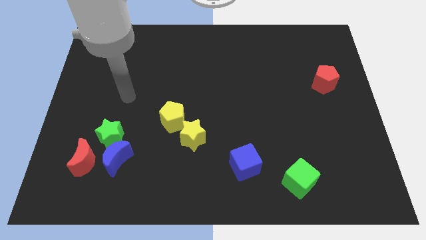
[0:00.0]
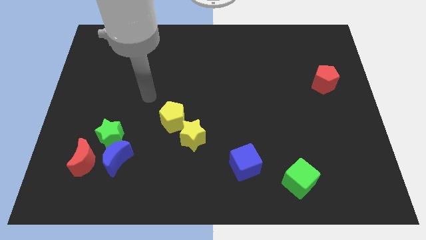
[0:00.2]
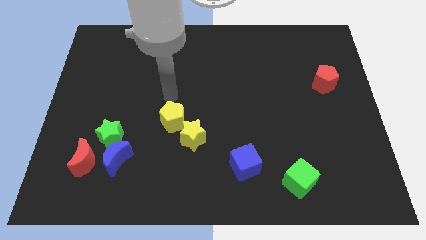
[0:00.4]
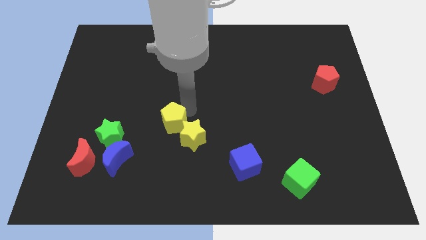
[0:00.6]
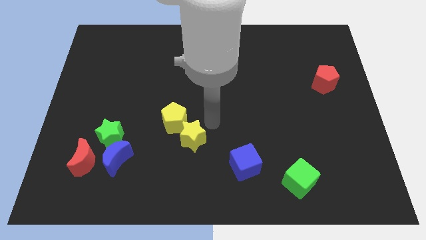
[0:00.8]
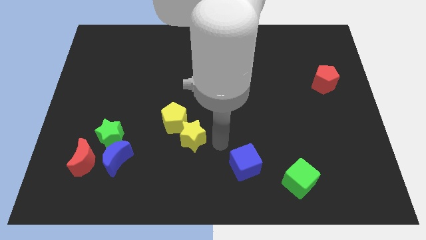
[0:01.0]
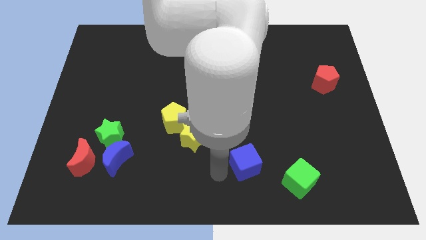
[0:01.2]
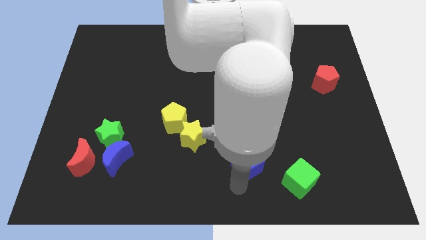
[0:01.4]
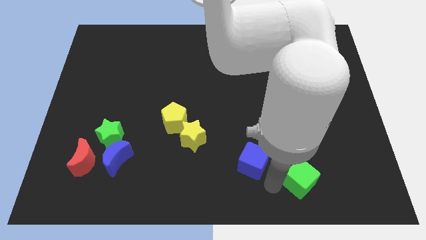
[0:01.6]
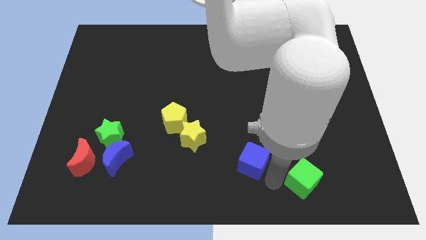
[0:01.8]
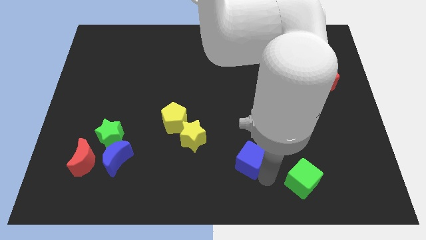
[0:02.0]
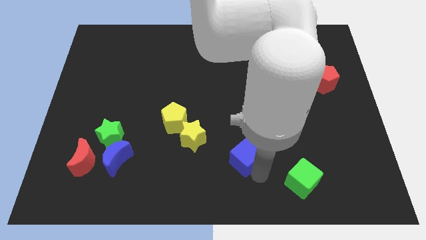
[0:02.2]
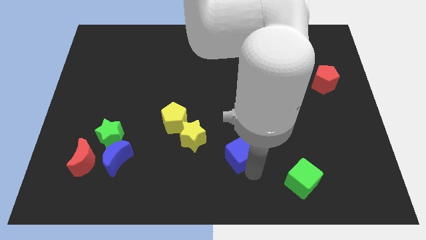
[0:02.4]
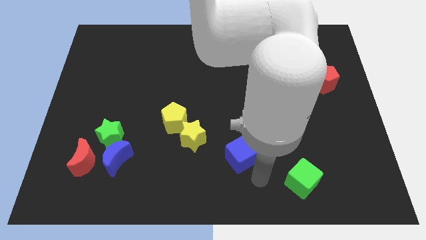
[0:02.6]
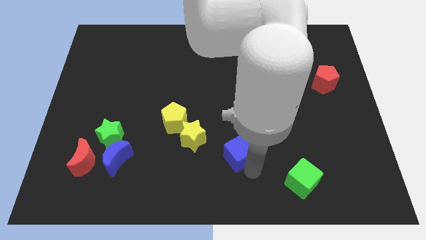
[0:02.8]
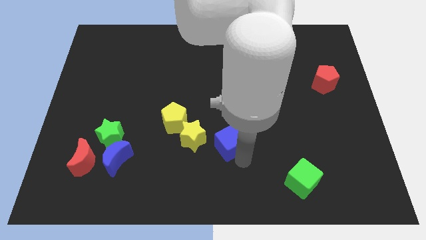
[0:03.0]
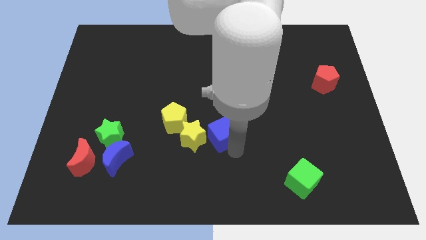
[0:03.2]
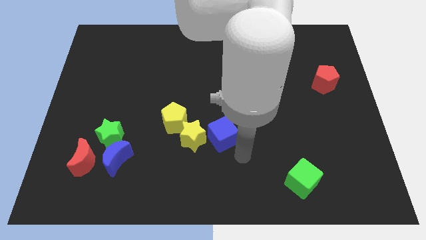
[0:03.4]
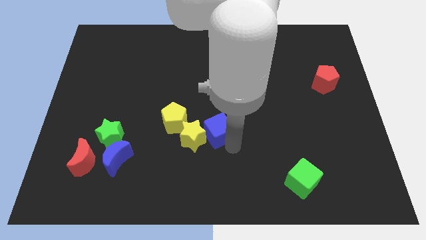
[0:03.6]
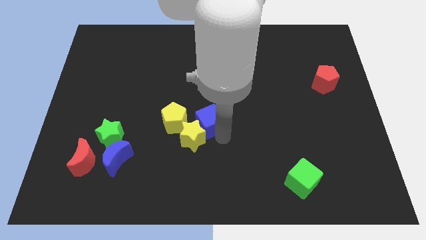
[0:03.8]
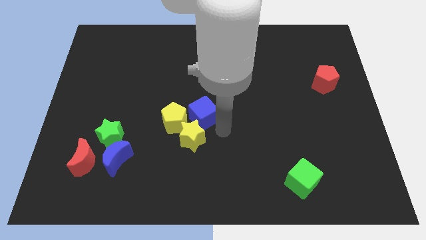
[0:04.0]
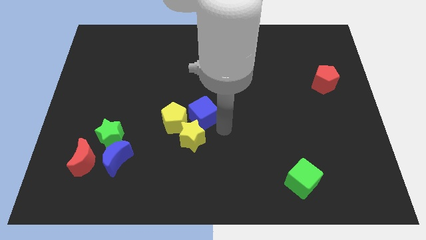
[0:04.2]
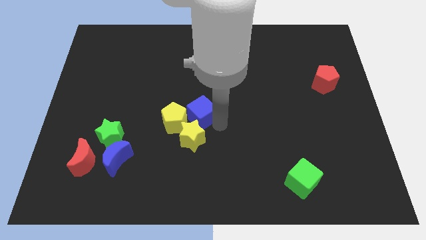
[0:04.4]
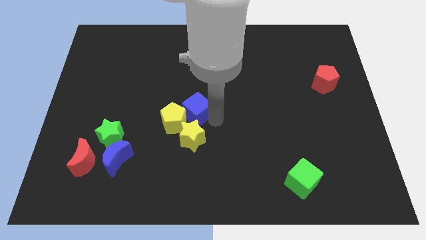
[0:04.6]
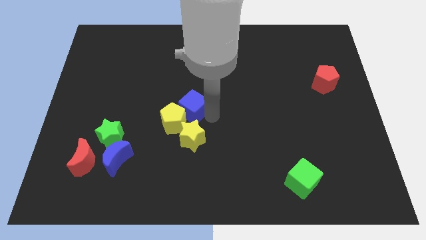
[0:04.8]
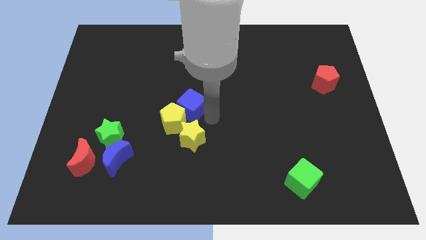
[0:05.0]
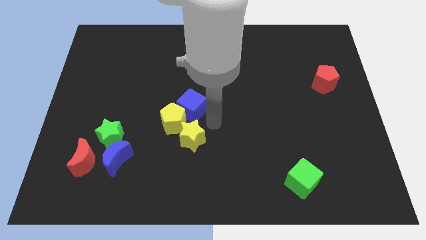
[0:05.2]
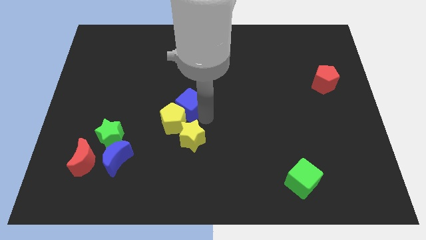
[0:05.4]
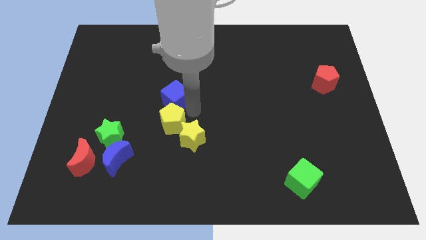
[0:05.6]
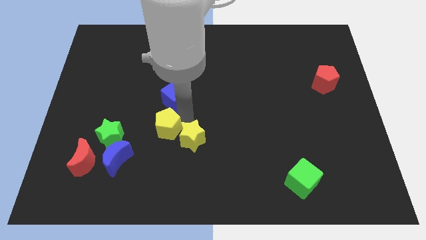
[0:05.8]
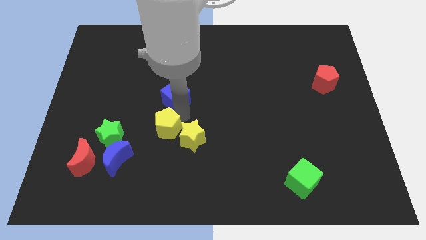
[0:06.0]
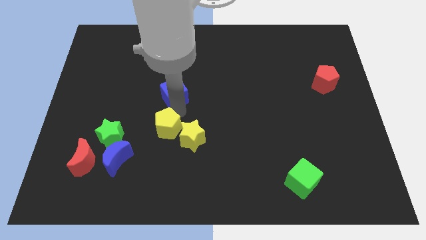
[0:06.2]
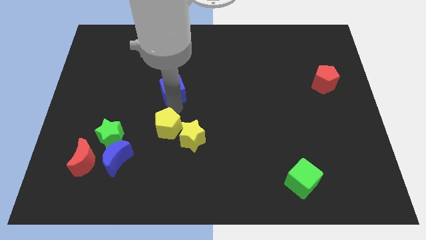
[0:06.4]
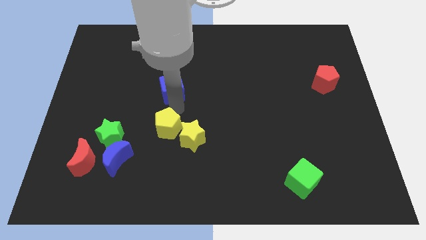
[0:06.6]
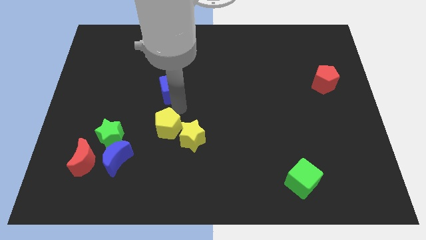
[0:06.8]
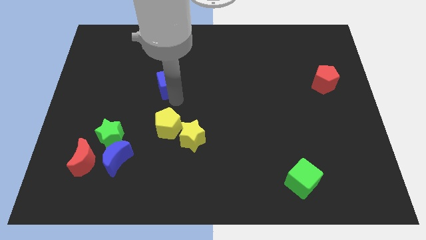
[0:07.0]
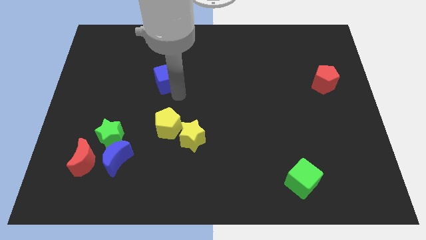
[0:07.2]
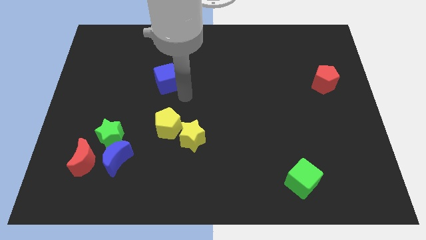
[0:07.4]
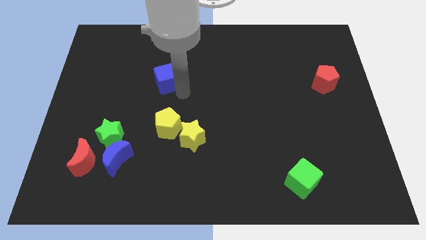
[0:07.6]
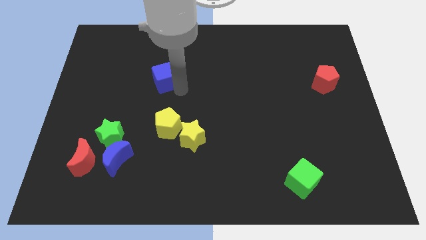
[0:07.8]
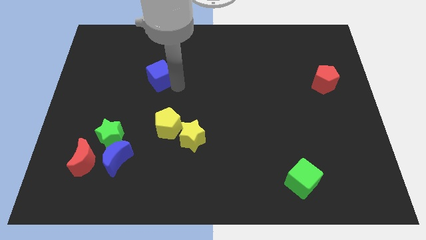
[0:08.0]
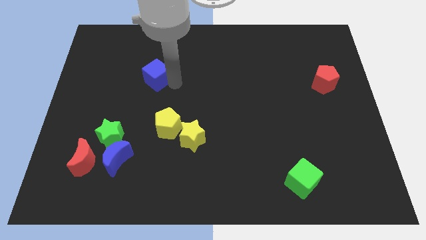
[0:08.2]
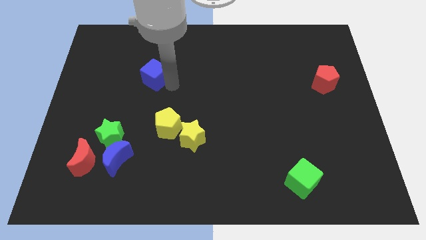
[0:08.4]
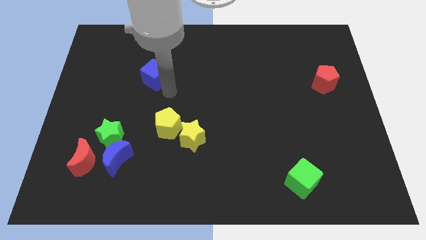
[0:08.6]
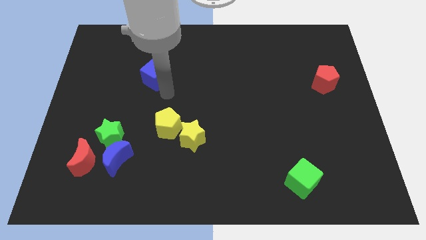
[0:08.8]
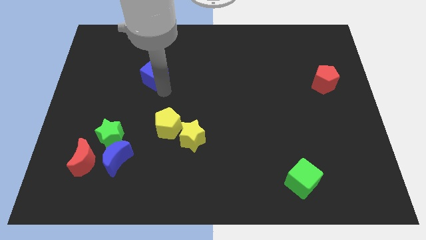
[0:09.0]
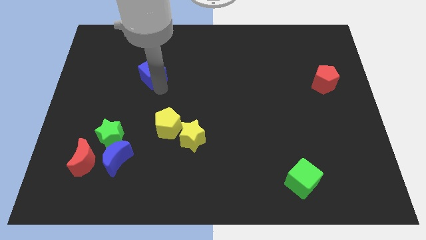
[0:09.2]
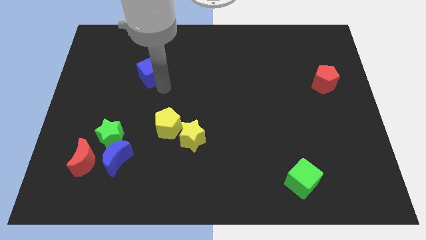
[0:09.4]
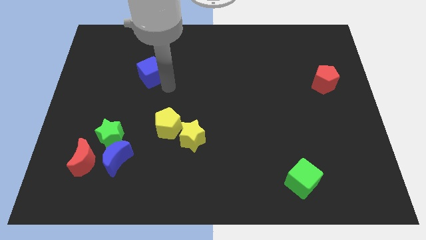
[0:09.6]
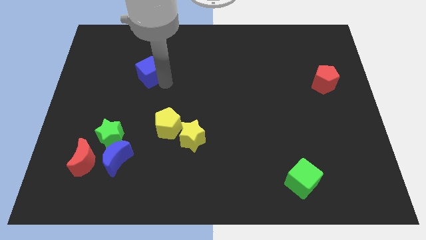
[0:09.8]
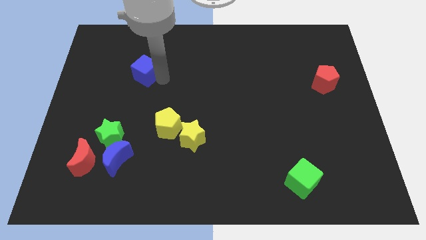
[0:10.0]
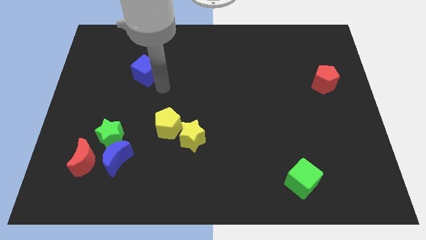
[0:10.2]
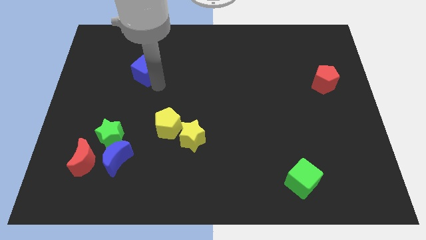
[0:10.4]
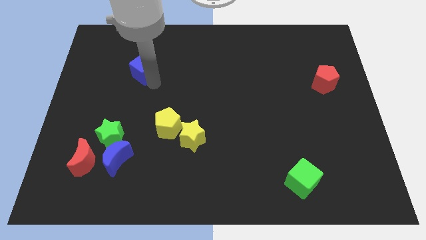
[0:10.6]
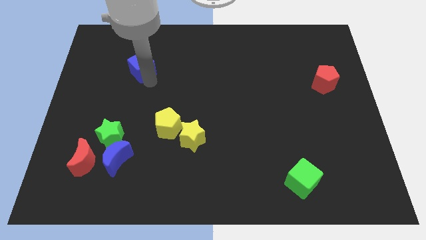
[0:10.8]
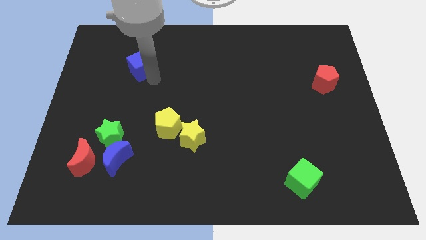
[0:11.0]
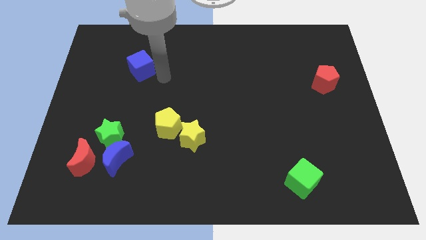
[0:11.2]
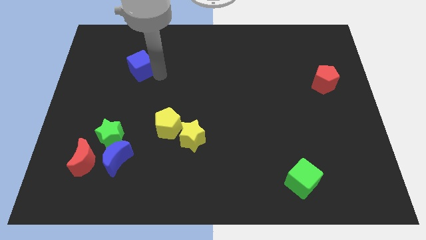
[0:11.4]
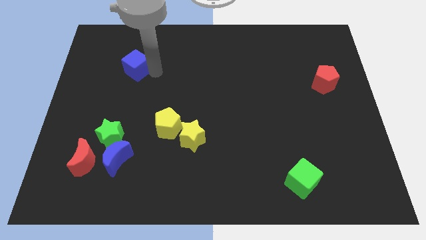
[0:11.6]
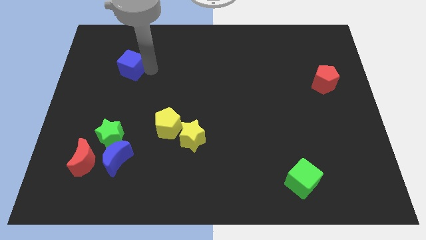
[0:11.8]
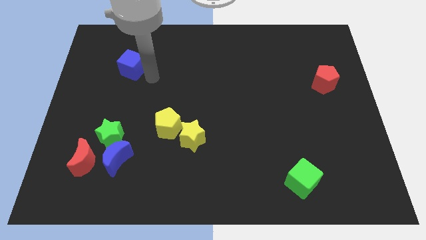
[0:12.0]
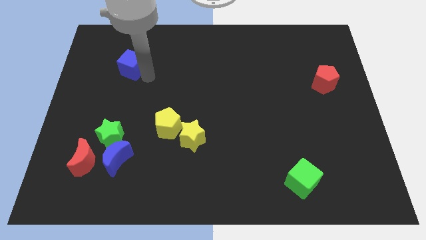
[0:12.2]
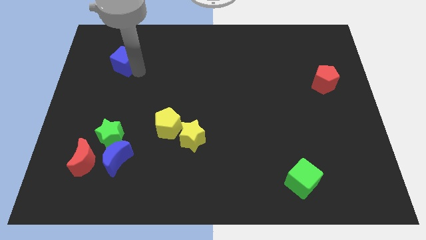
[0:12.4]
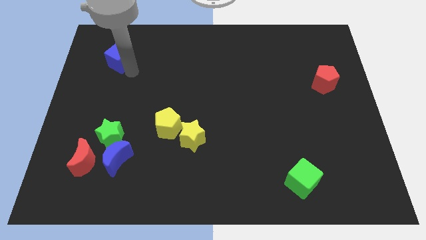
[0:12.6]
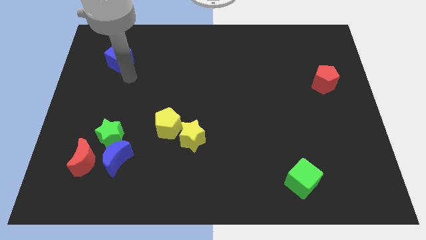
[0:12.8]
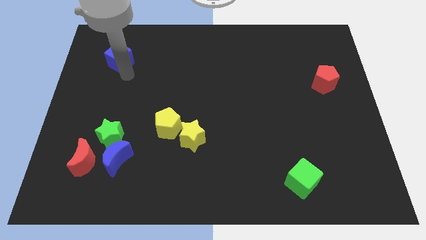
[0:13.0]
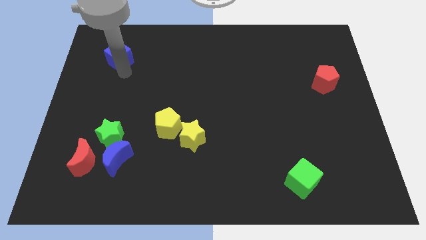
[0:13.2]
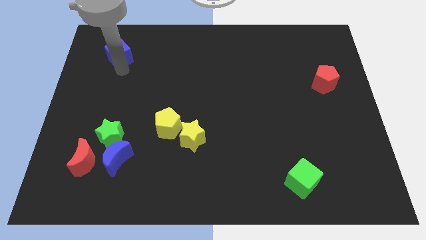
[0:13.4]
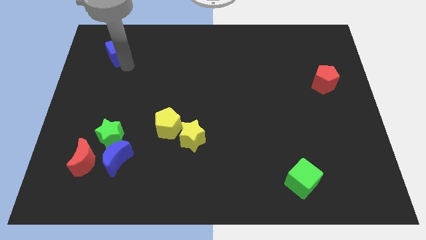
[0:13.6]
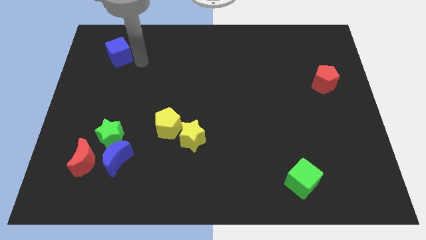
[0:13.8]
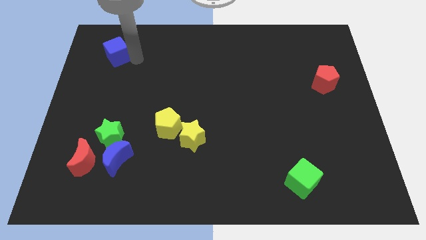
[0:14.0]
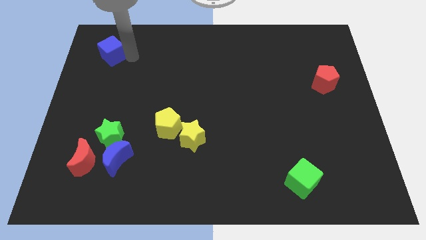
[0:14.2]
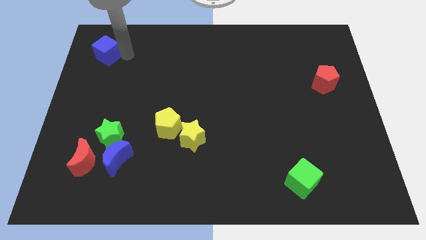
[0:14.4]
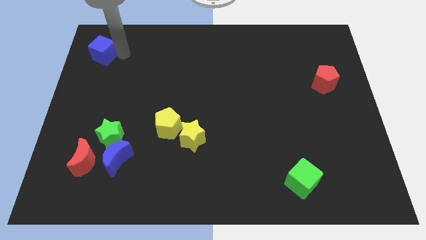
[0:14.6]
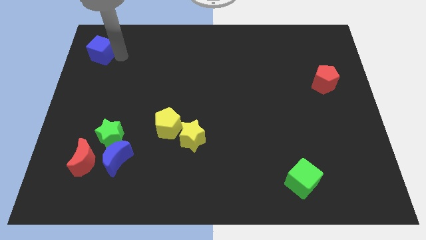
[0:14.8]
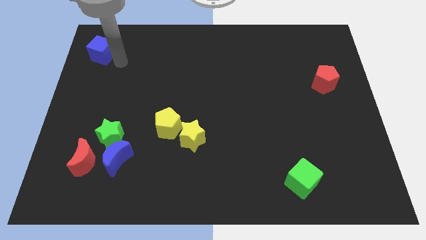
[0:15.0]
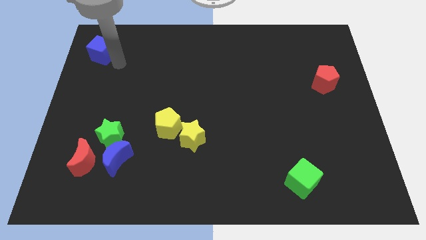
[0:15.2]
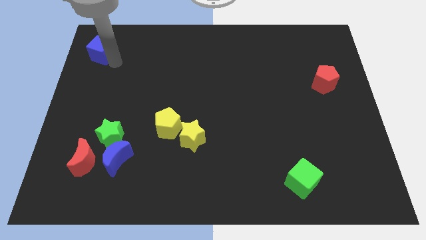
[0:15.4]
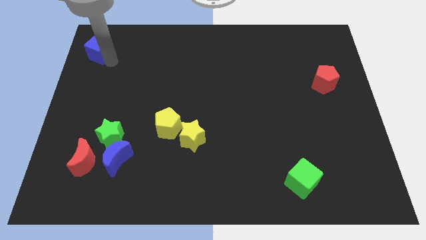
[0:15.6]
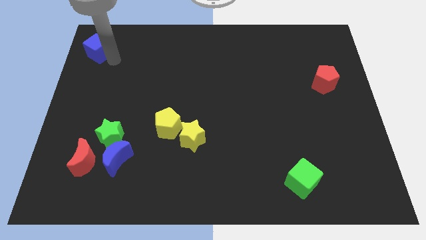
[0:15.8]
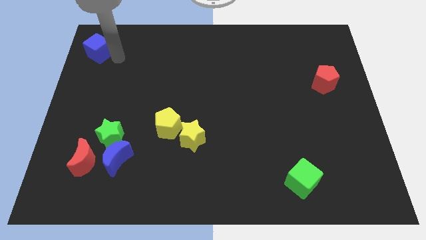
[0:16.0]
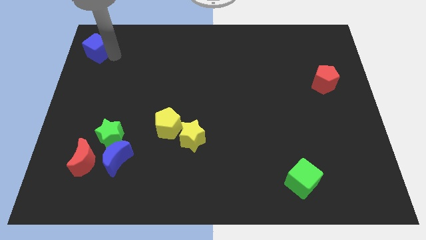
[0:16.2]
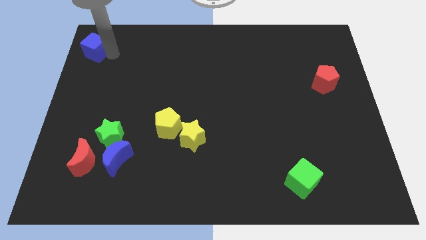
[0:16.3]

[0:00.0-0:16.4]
put the blue cube to the upper left corner
